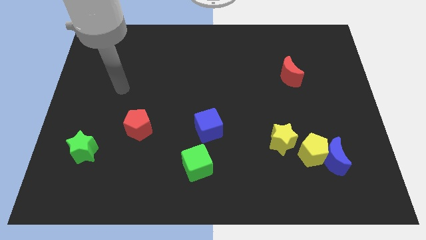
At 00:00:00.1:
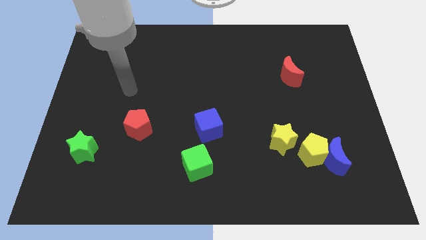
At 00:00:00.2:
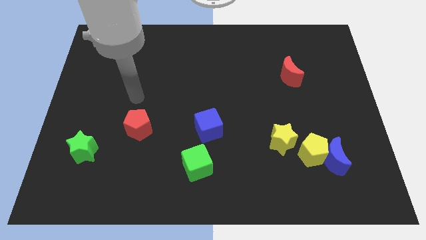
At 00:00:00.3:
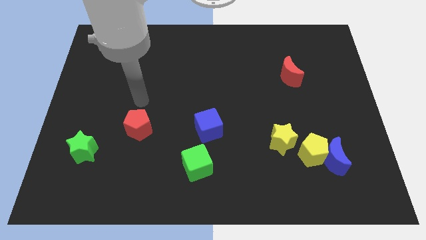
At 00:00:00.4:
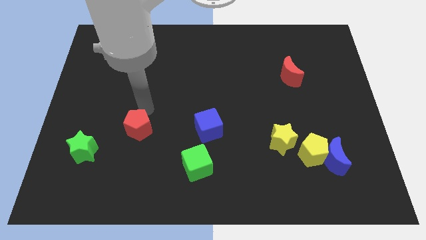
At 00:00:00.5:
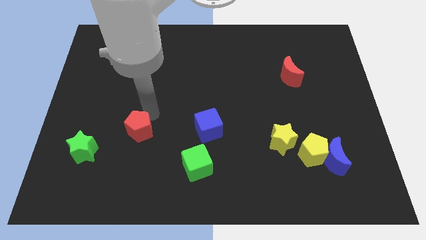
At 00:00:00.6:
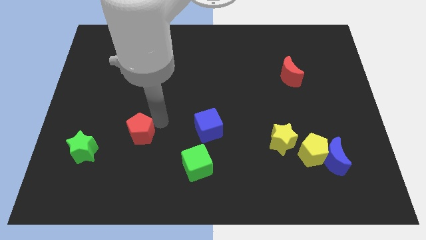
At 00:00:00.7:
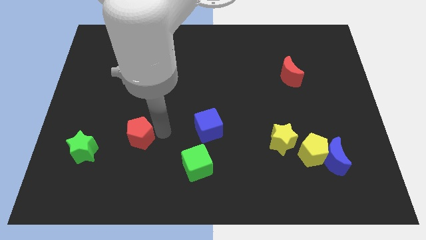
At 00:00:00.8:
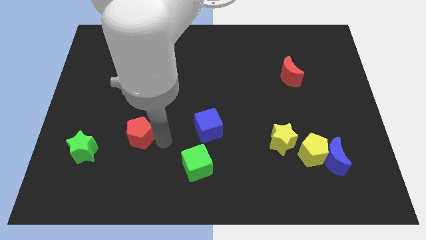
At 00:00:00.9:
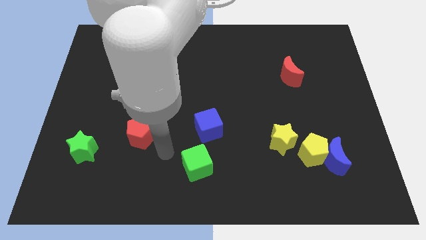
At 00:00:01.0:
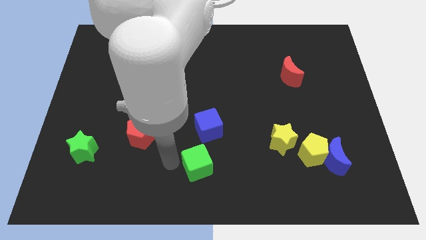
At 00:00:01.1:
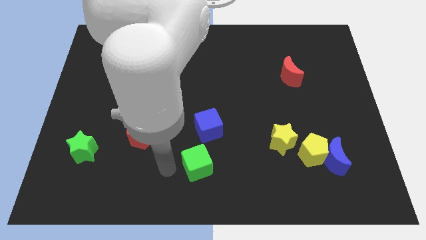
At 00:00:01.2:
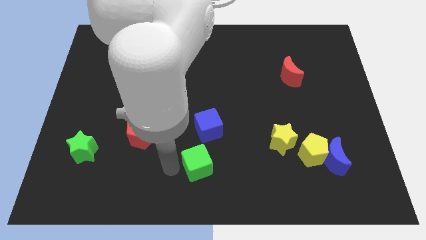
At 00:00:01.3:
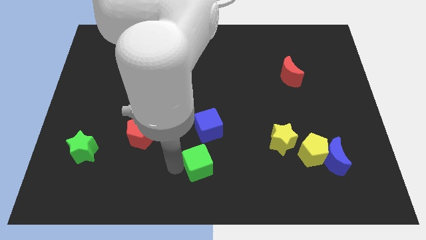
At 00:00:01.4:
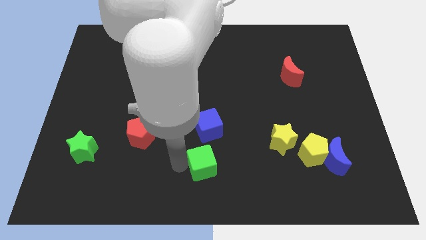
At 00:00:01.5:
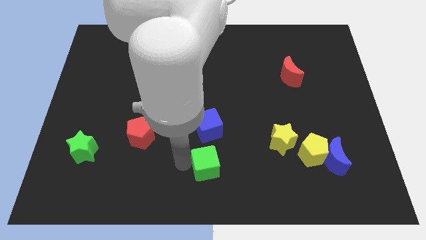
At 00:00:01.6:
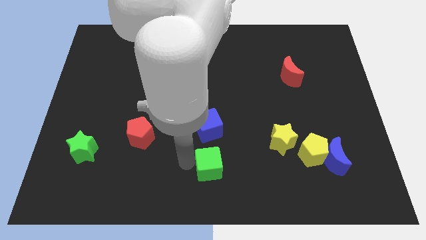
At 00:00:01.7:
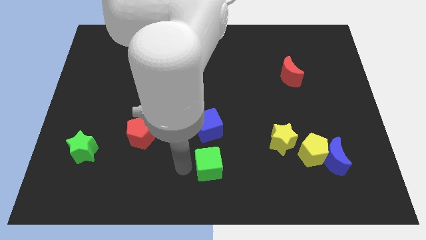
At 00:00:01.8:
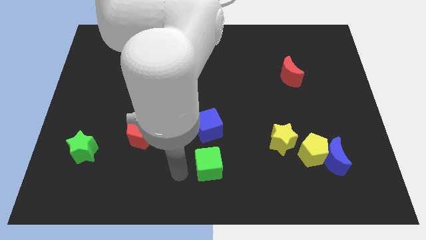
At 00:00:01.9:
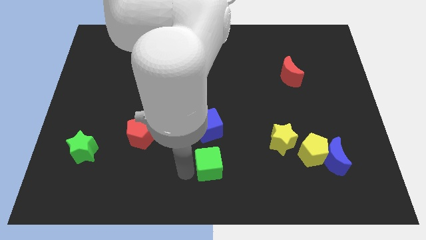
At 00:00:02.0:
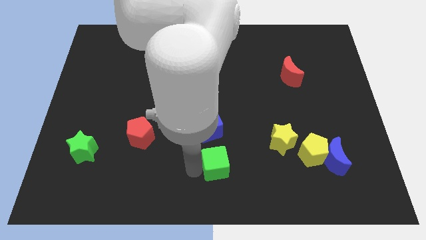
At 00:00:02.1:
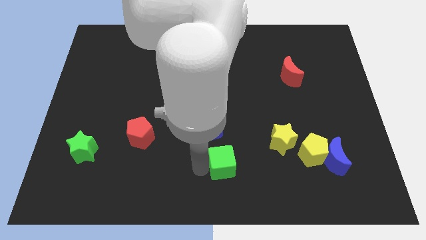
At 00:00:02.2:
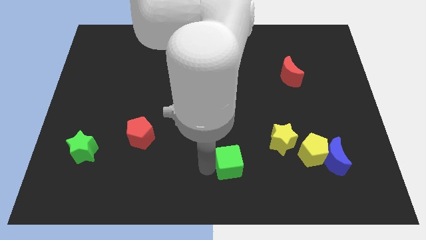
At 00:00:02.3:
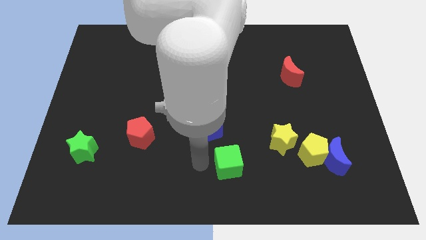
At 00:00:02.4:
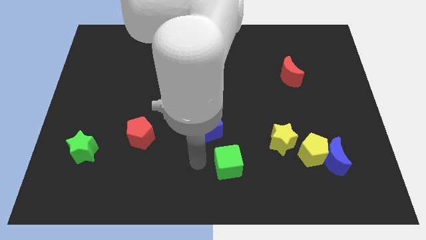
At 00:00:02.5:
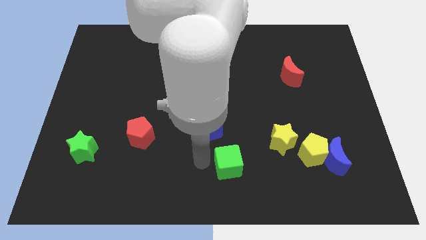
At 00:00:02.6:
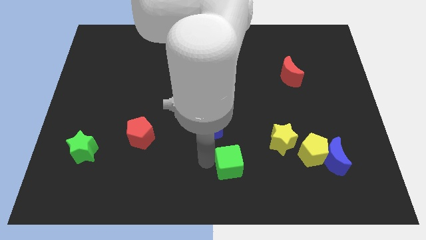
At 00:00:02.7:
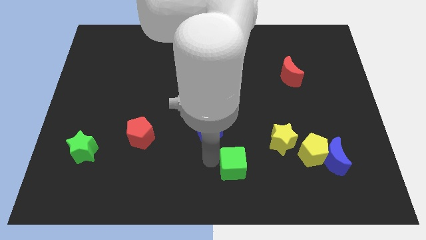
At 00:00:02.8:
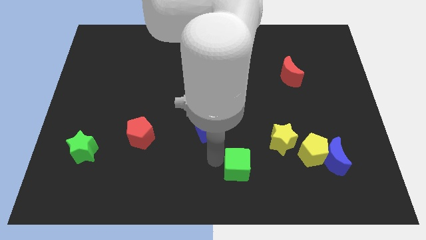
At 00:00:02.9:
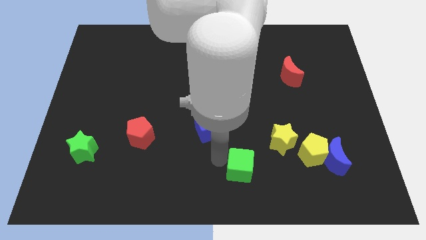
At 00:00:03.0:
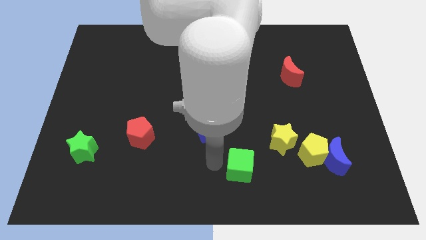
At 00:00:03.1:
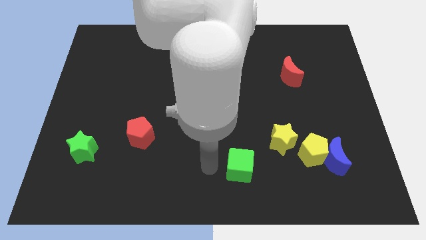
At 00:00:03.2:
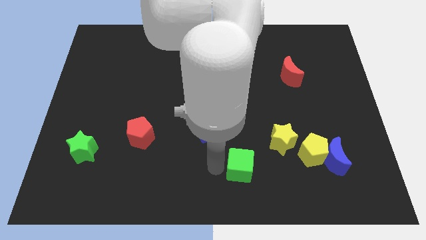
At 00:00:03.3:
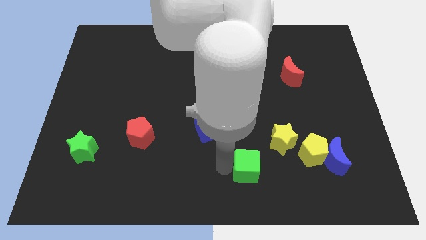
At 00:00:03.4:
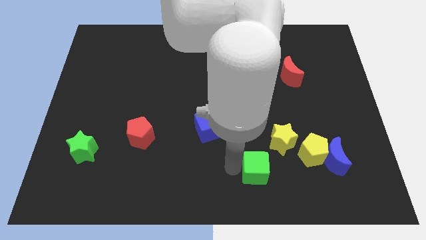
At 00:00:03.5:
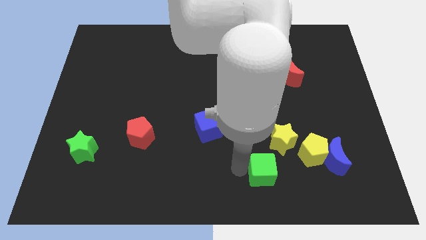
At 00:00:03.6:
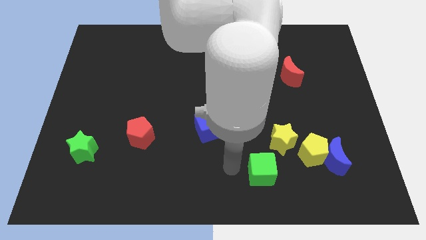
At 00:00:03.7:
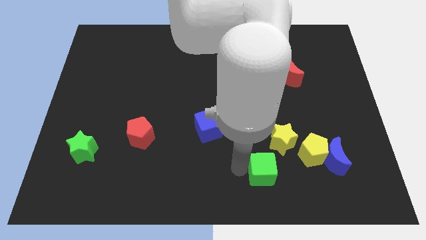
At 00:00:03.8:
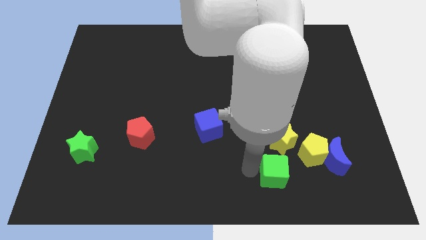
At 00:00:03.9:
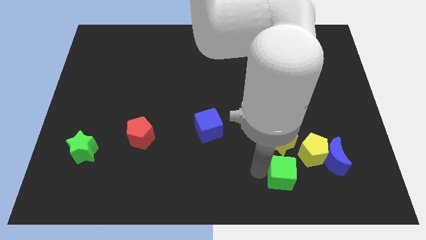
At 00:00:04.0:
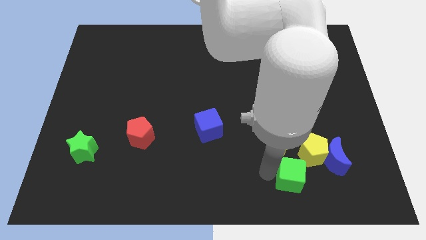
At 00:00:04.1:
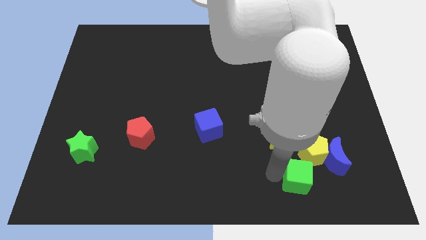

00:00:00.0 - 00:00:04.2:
move the green cube right

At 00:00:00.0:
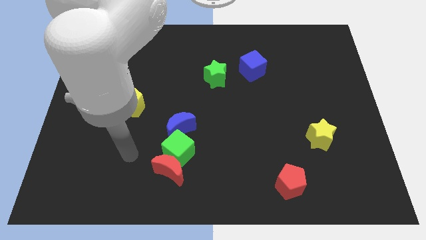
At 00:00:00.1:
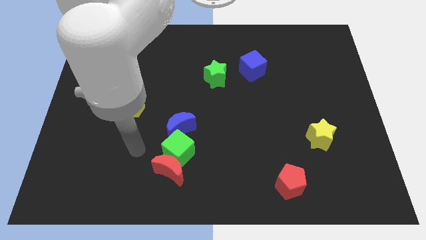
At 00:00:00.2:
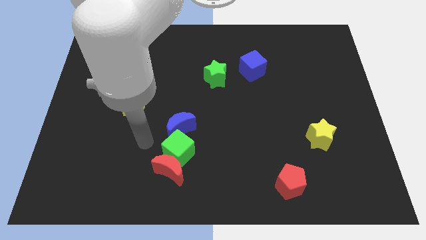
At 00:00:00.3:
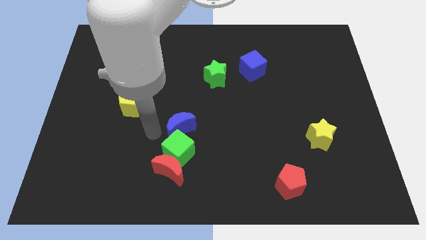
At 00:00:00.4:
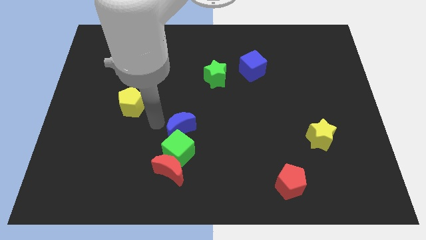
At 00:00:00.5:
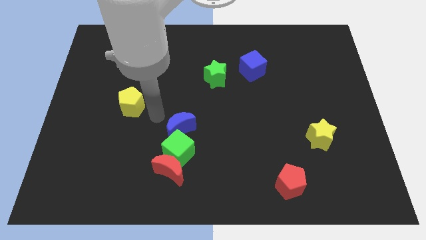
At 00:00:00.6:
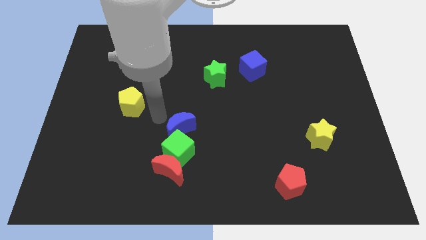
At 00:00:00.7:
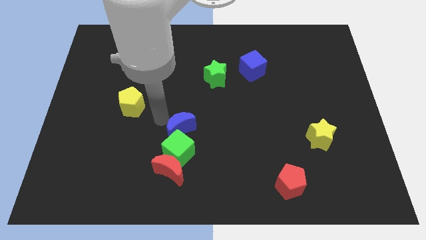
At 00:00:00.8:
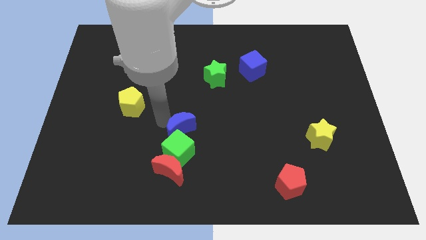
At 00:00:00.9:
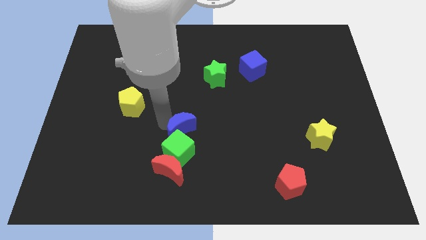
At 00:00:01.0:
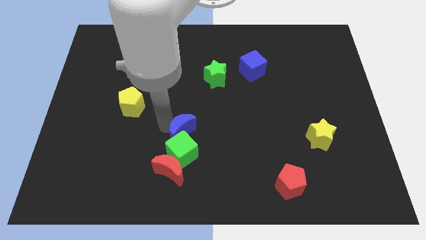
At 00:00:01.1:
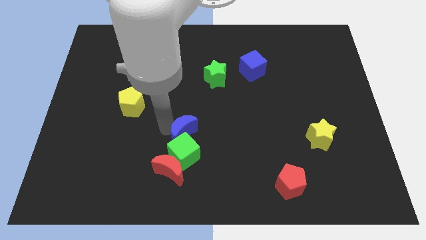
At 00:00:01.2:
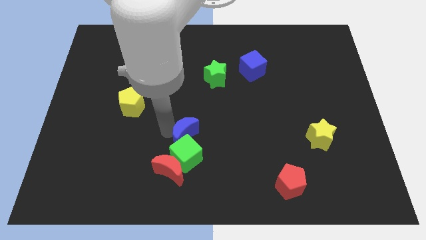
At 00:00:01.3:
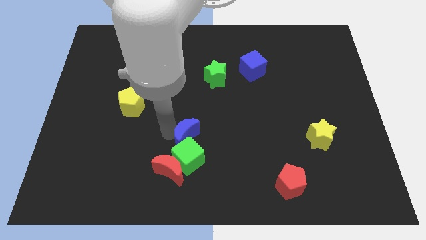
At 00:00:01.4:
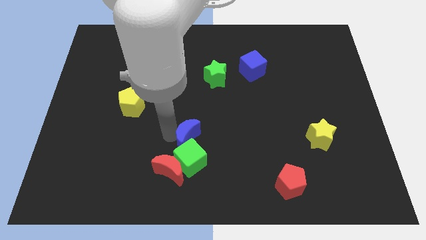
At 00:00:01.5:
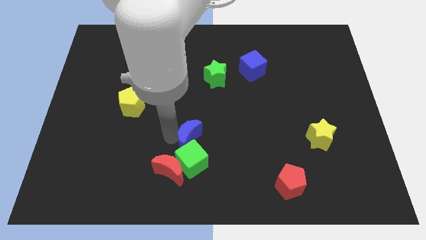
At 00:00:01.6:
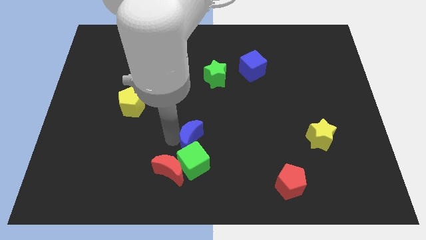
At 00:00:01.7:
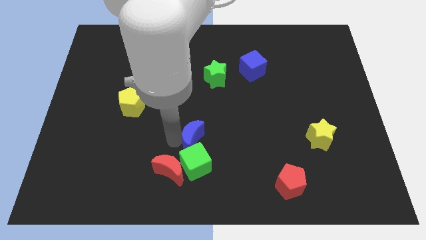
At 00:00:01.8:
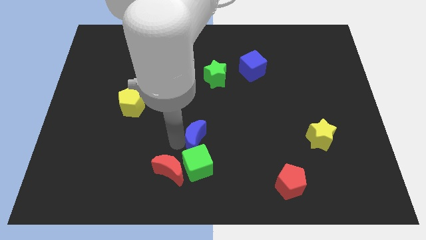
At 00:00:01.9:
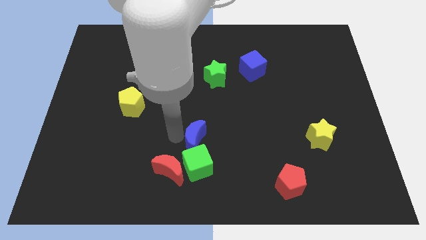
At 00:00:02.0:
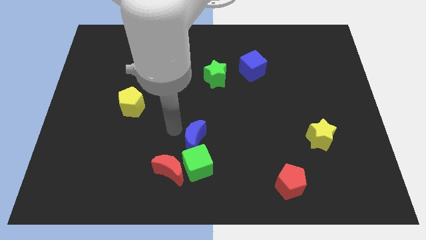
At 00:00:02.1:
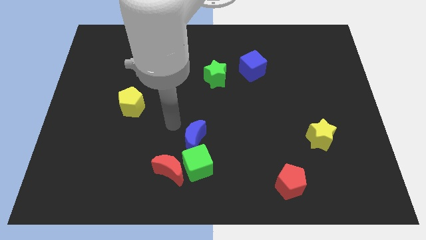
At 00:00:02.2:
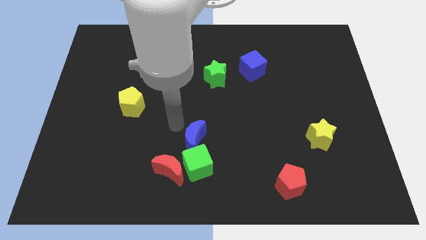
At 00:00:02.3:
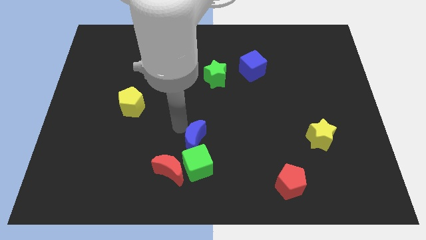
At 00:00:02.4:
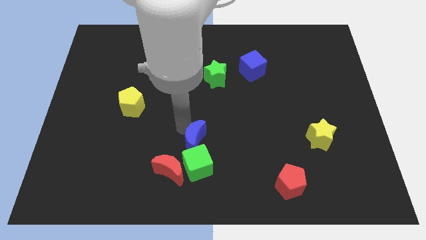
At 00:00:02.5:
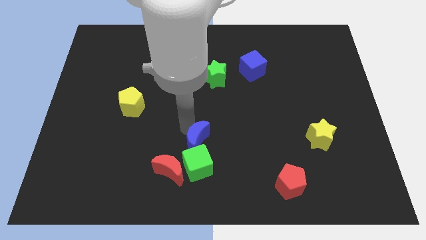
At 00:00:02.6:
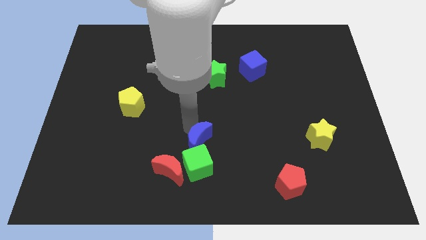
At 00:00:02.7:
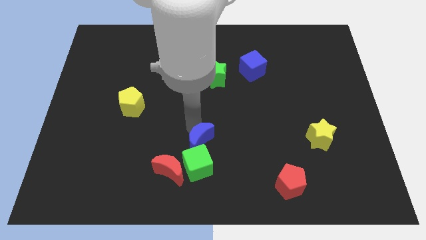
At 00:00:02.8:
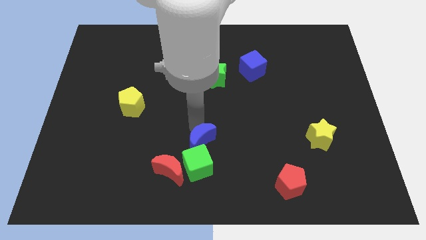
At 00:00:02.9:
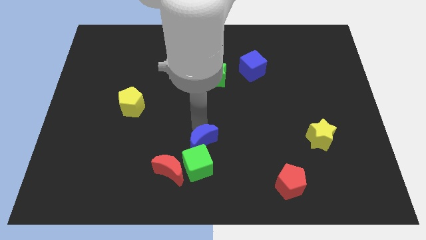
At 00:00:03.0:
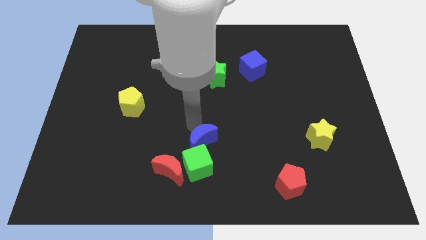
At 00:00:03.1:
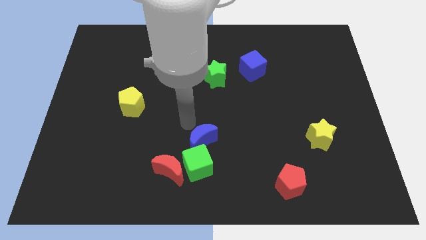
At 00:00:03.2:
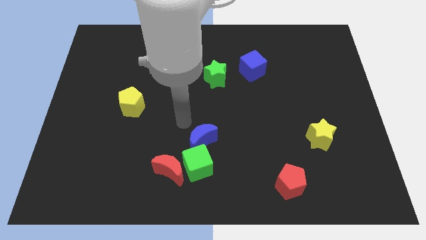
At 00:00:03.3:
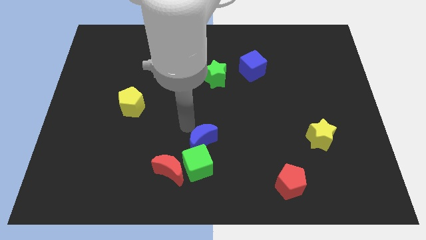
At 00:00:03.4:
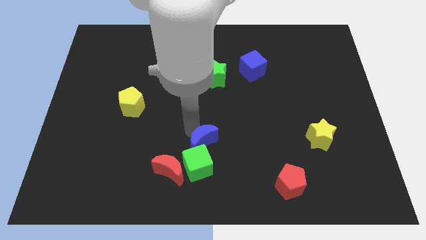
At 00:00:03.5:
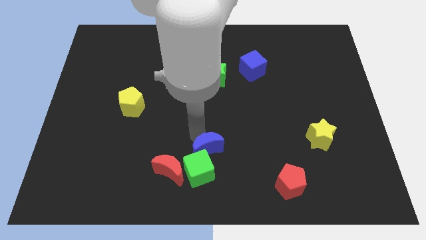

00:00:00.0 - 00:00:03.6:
move the blue moon a little downwards and right diagonally

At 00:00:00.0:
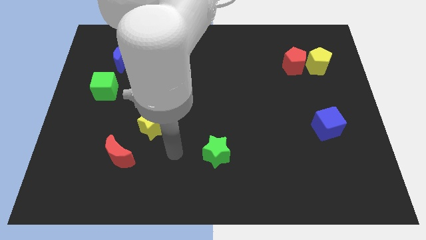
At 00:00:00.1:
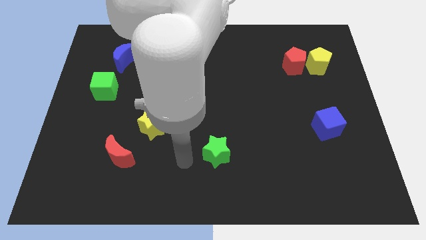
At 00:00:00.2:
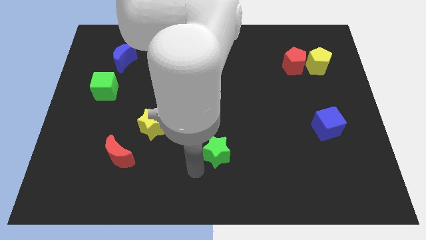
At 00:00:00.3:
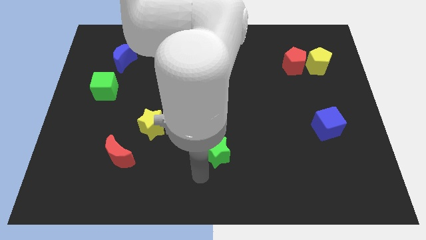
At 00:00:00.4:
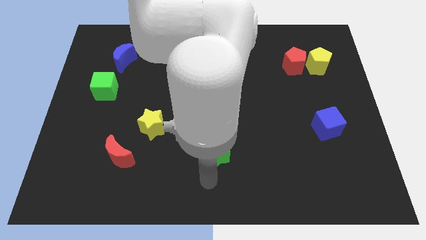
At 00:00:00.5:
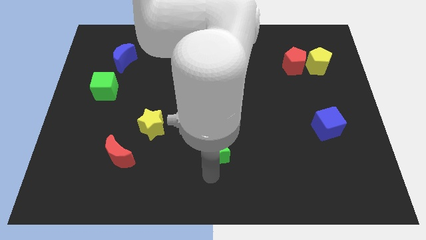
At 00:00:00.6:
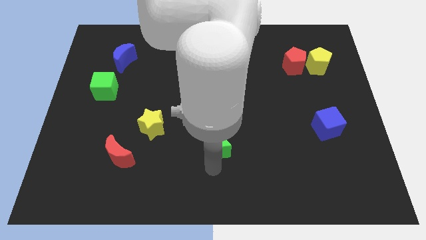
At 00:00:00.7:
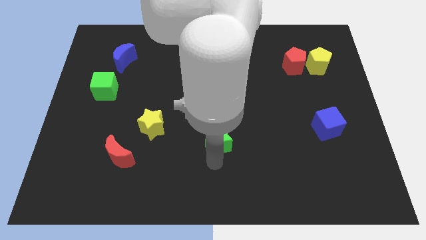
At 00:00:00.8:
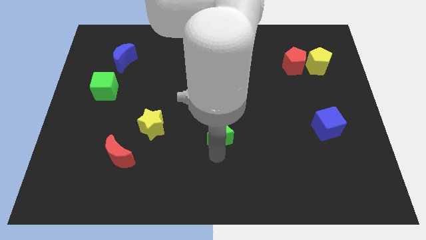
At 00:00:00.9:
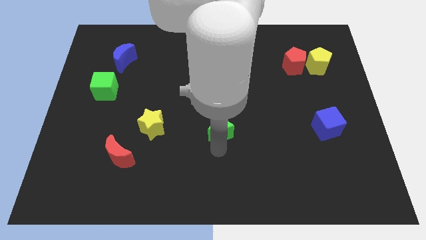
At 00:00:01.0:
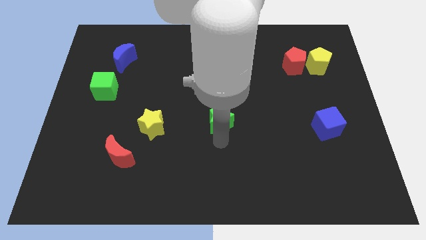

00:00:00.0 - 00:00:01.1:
push the green star upwards slightly
